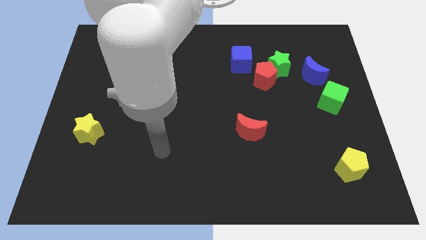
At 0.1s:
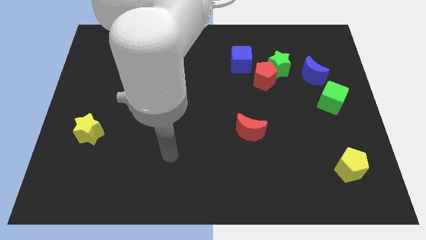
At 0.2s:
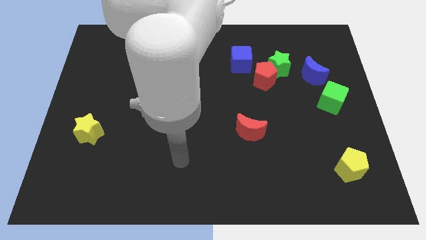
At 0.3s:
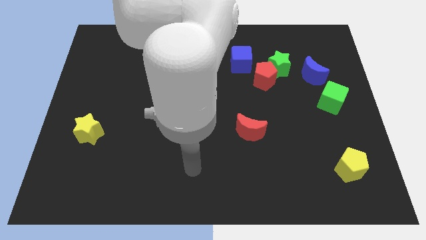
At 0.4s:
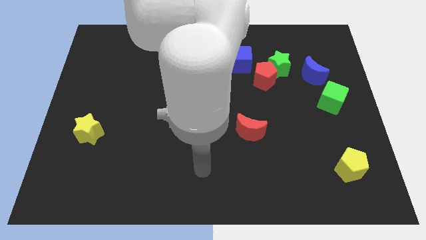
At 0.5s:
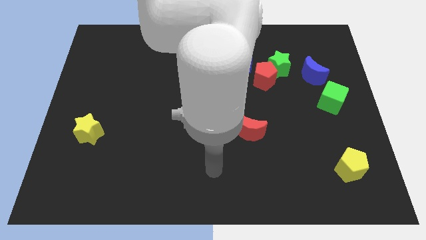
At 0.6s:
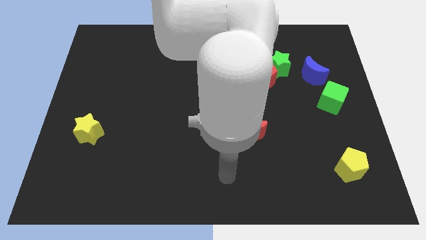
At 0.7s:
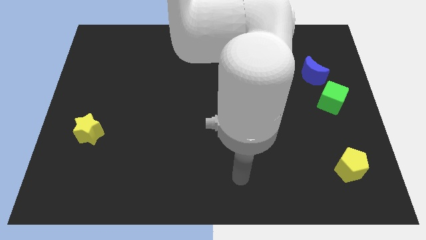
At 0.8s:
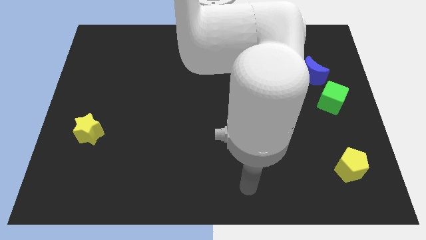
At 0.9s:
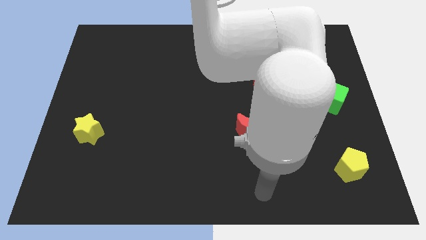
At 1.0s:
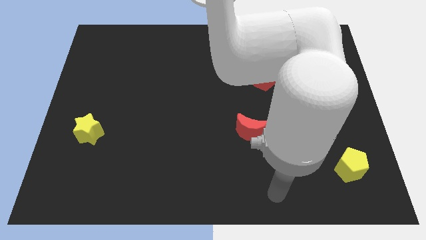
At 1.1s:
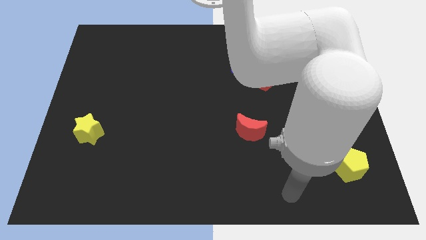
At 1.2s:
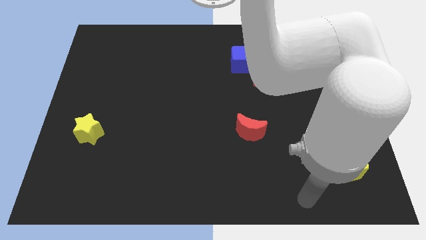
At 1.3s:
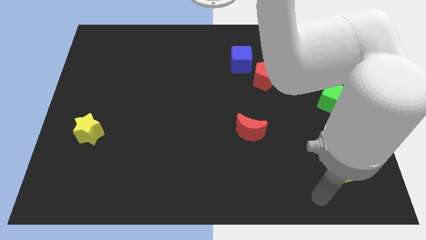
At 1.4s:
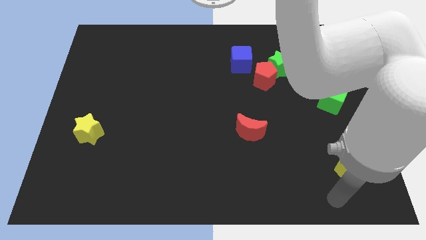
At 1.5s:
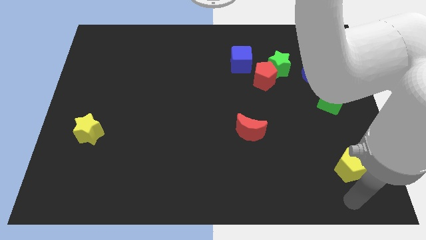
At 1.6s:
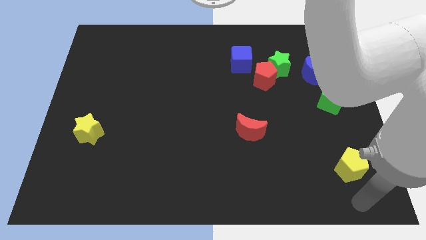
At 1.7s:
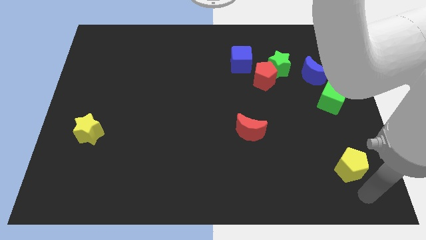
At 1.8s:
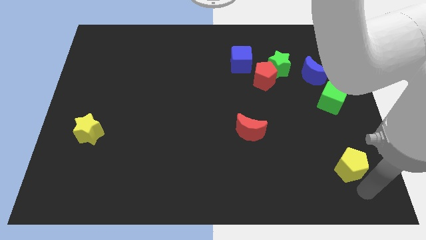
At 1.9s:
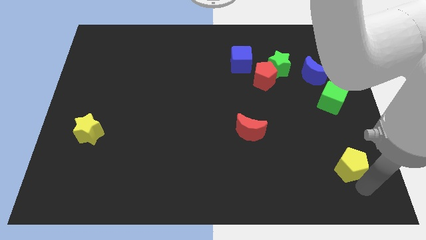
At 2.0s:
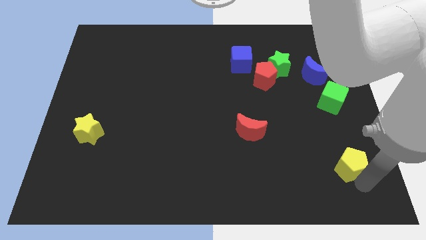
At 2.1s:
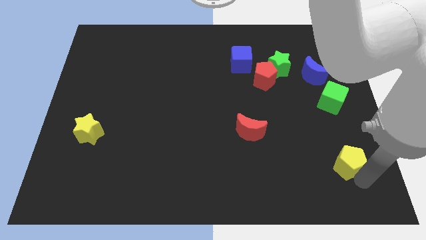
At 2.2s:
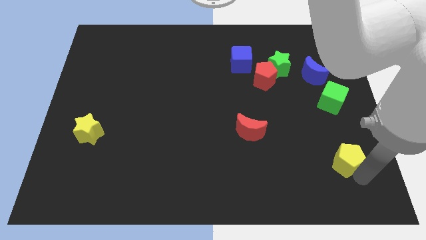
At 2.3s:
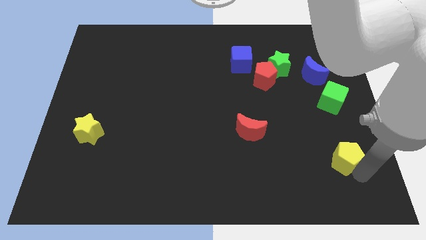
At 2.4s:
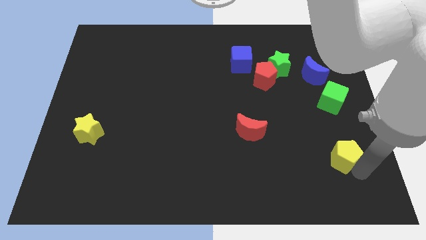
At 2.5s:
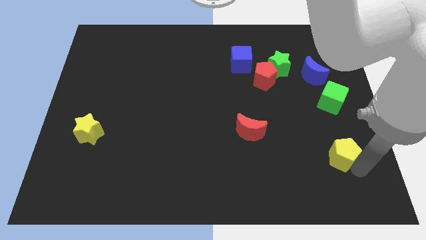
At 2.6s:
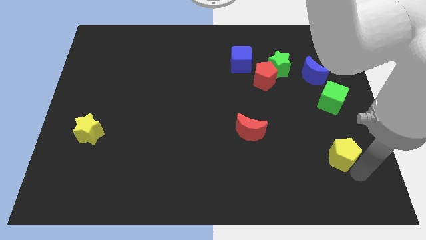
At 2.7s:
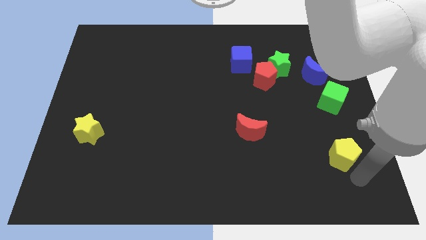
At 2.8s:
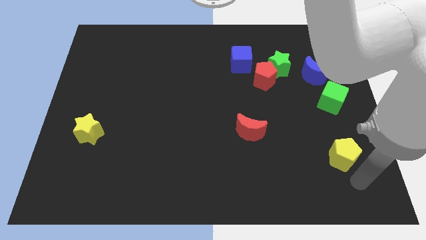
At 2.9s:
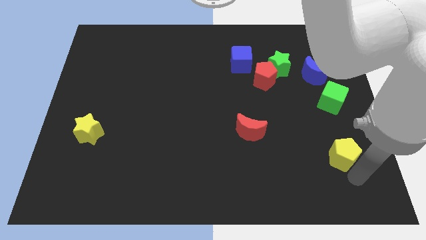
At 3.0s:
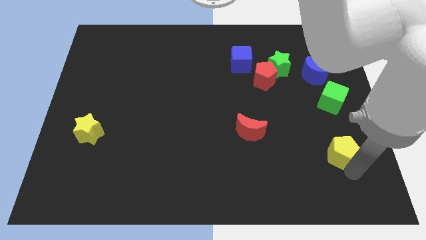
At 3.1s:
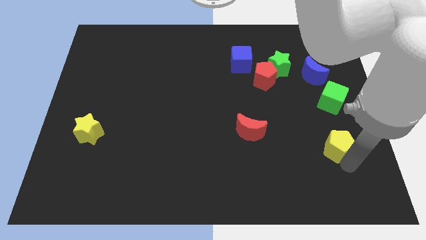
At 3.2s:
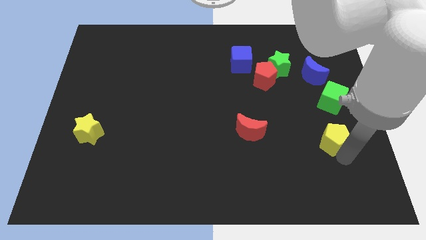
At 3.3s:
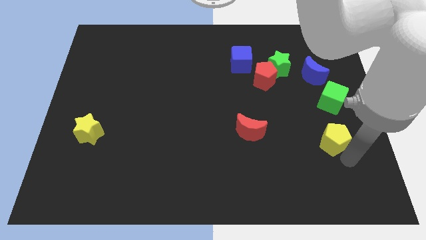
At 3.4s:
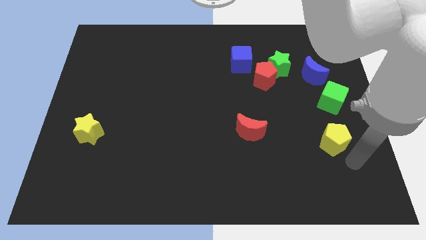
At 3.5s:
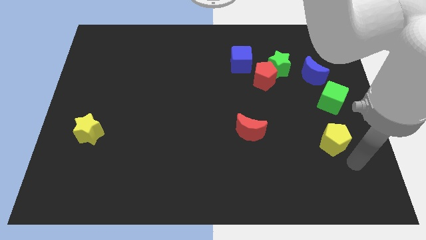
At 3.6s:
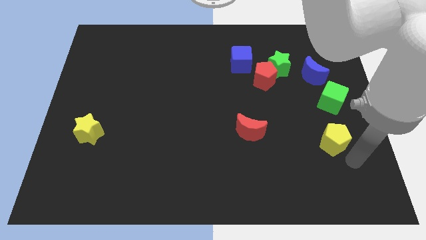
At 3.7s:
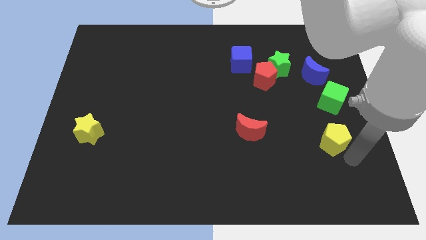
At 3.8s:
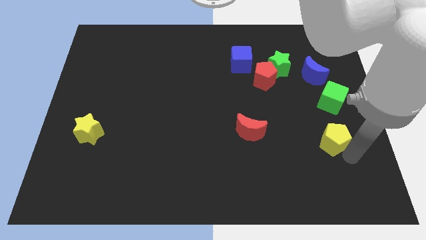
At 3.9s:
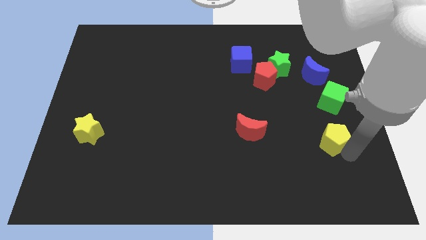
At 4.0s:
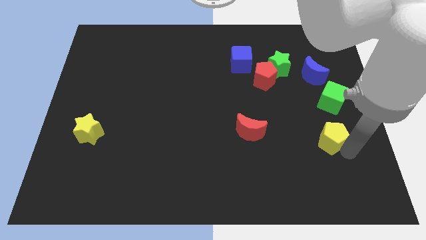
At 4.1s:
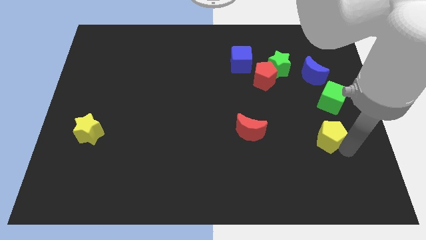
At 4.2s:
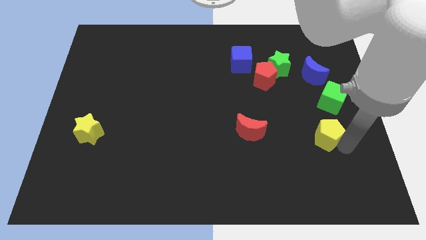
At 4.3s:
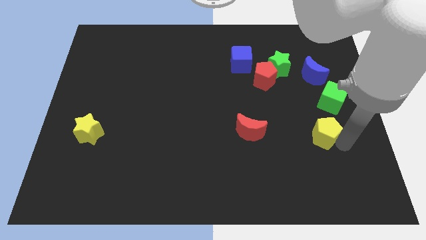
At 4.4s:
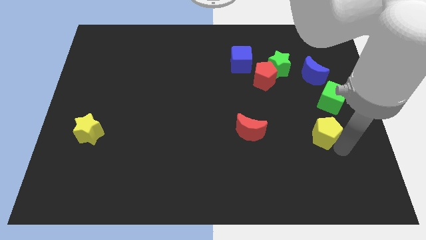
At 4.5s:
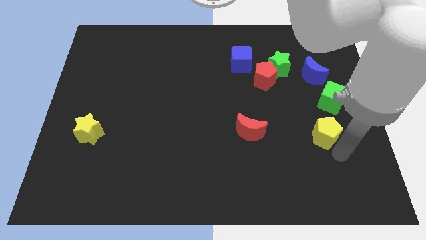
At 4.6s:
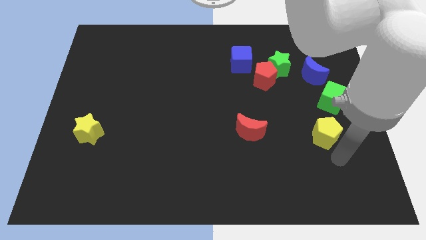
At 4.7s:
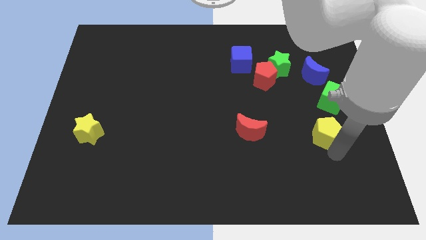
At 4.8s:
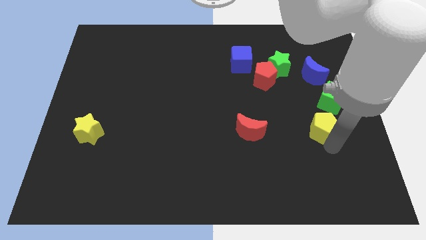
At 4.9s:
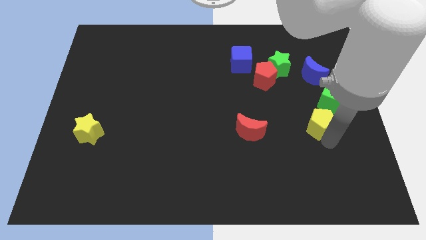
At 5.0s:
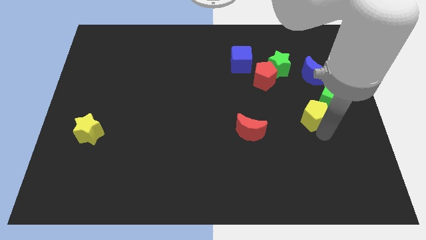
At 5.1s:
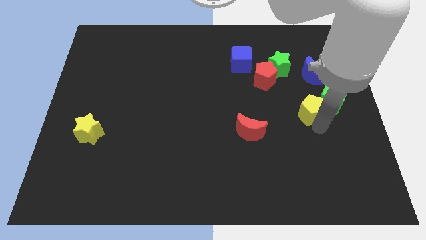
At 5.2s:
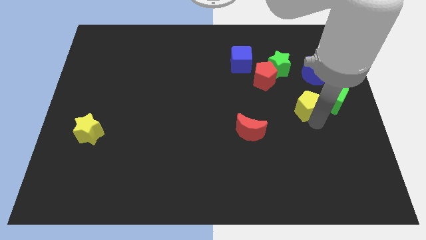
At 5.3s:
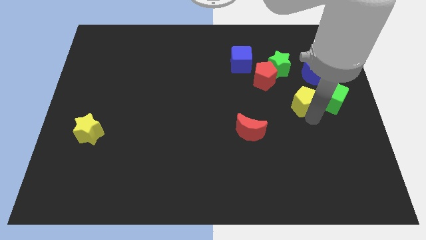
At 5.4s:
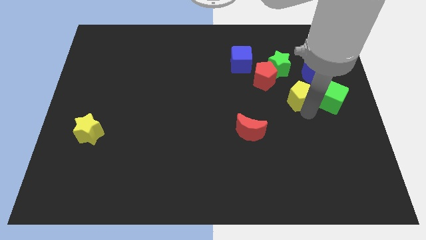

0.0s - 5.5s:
slide the yellow pentagon to the top left of the green cube
